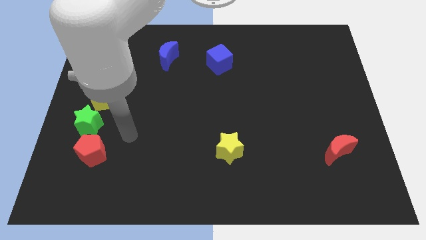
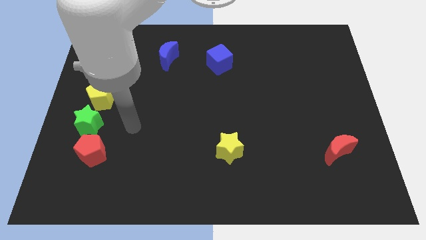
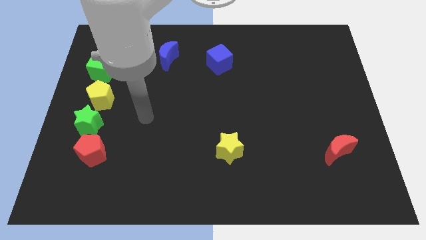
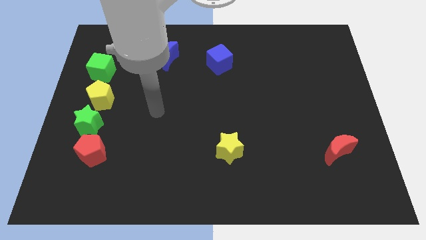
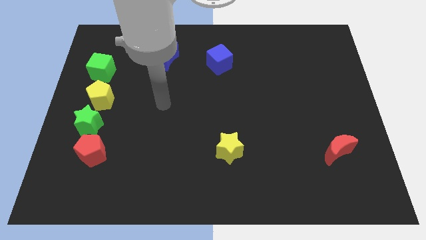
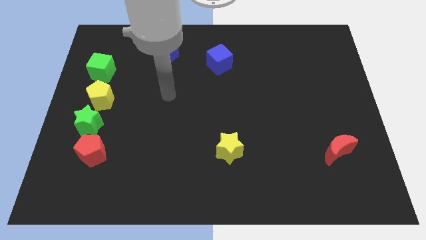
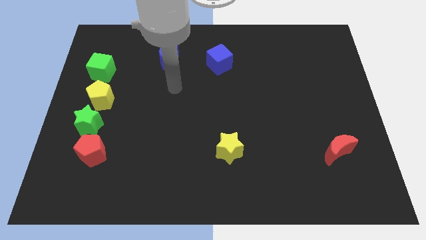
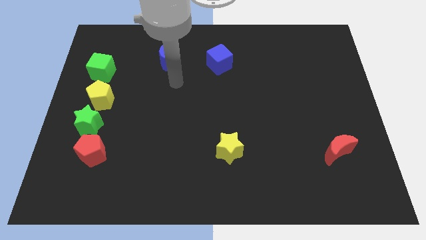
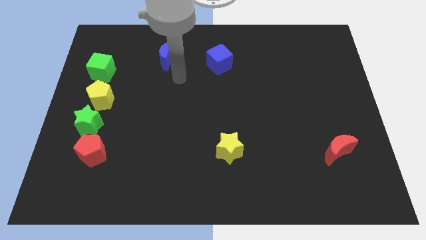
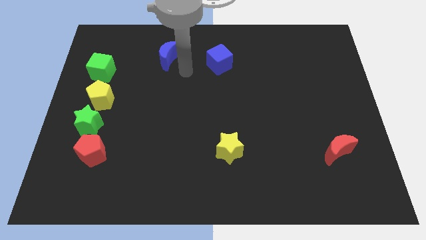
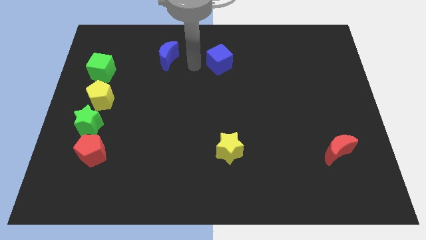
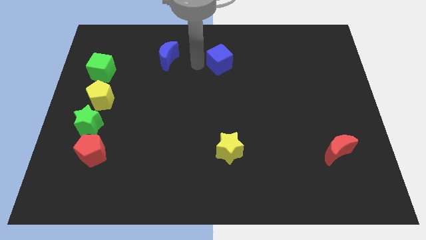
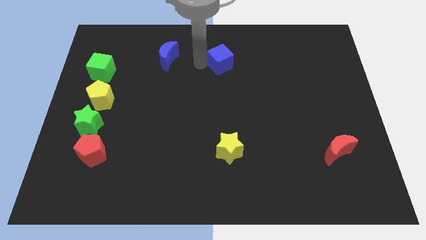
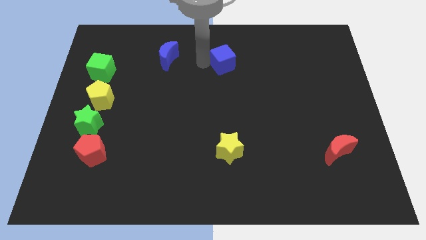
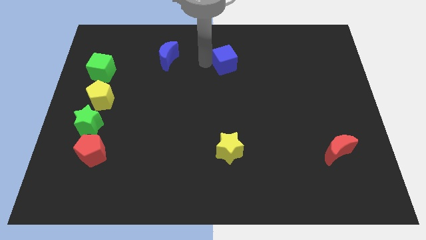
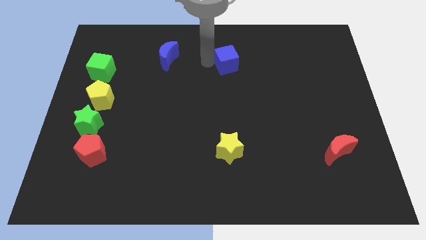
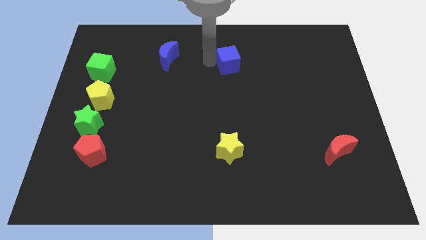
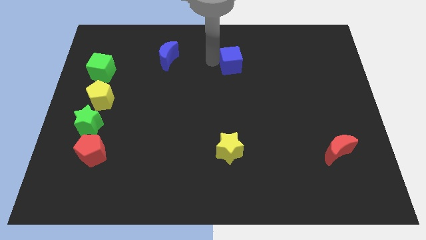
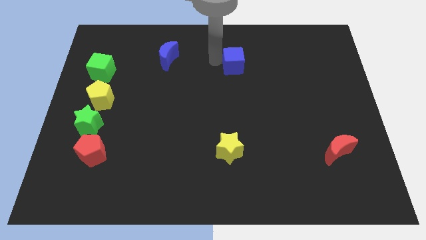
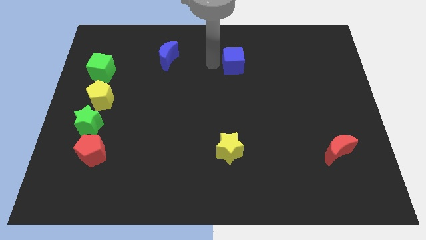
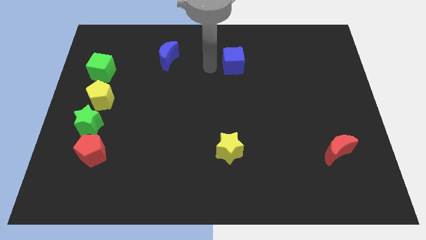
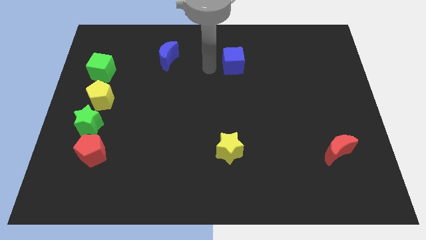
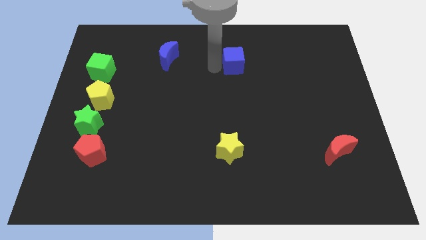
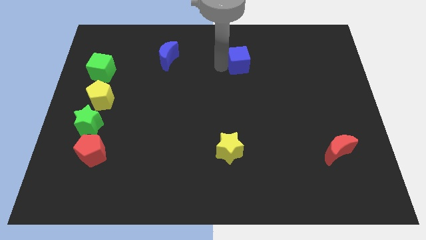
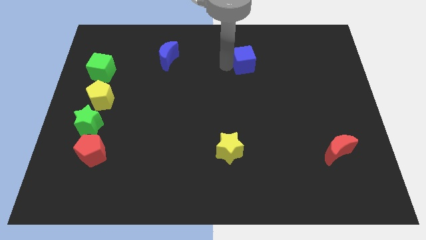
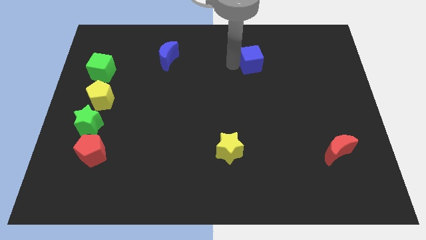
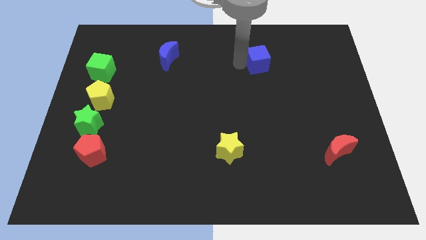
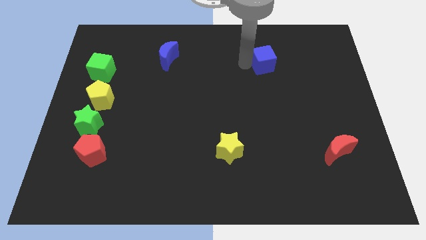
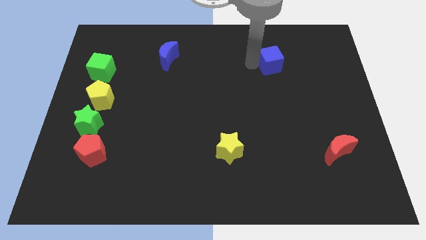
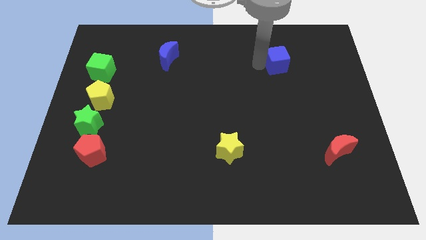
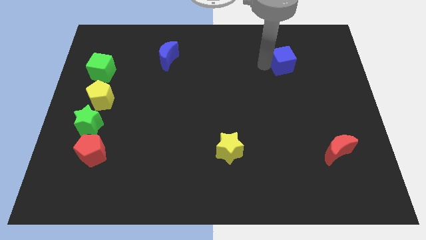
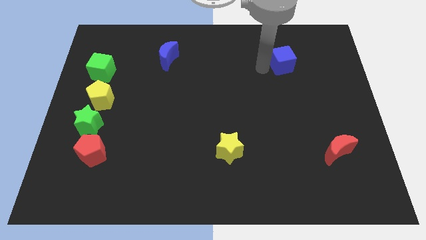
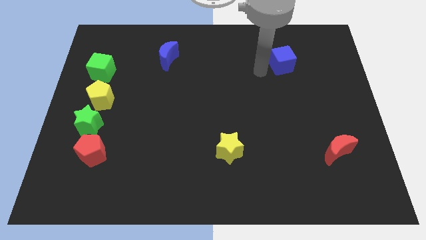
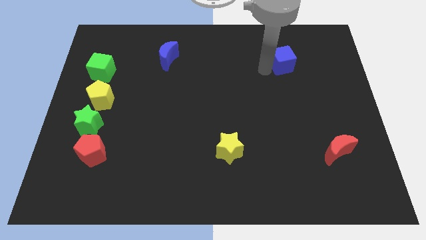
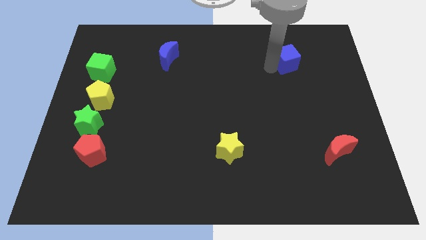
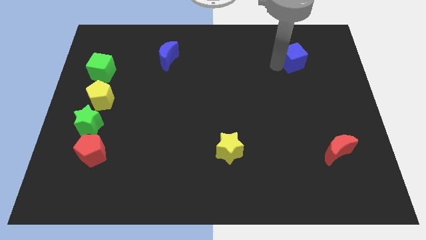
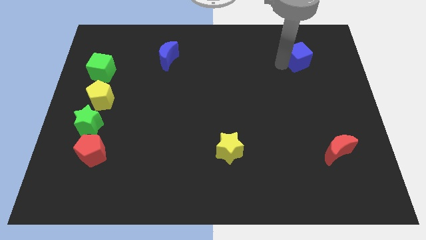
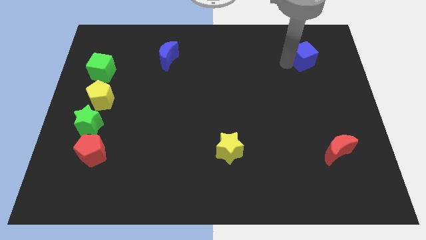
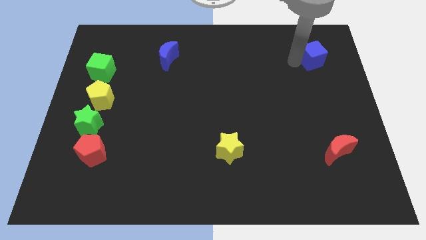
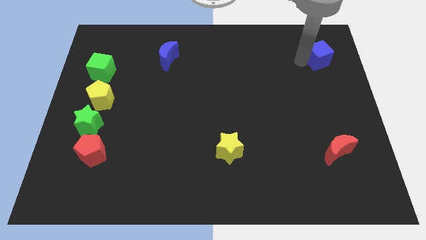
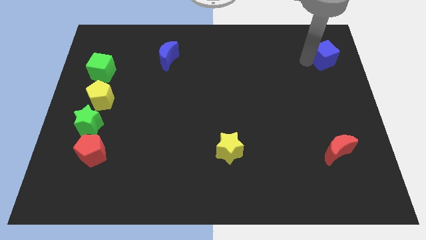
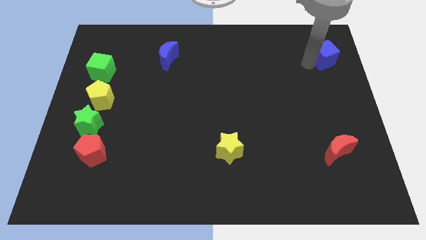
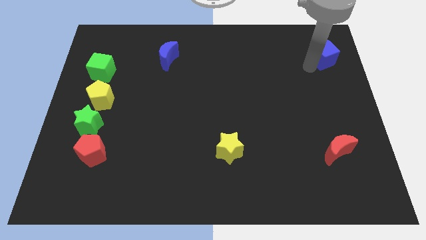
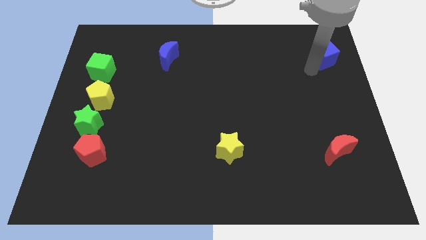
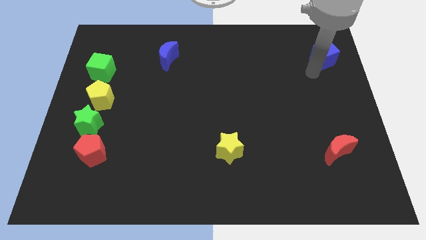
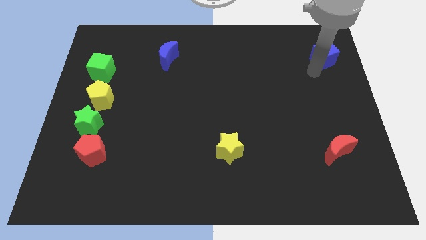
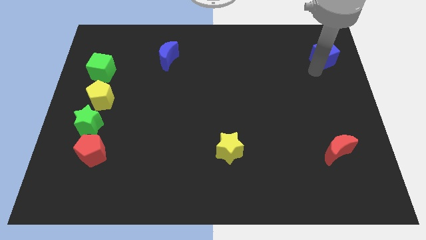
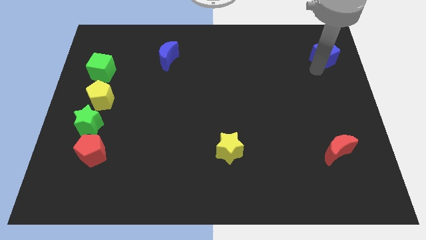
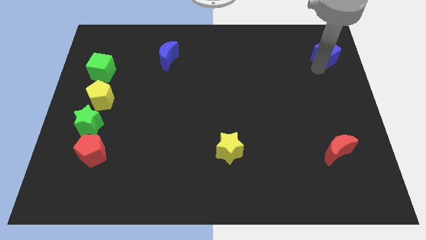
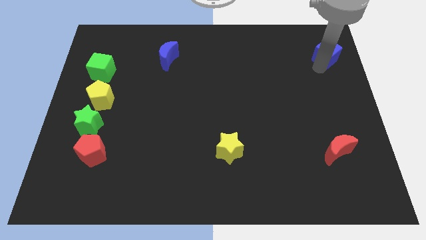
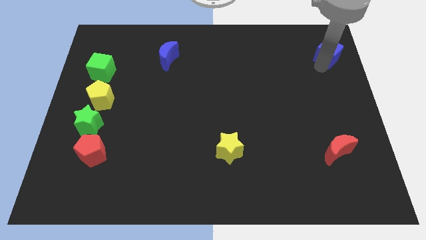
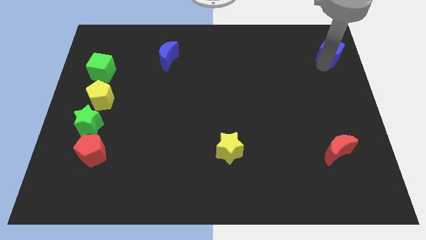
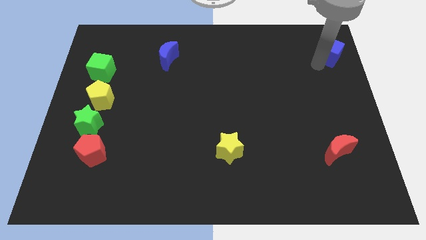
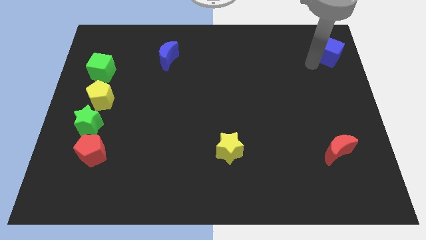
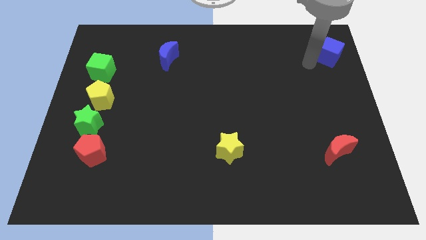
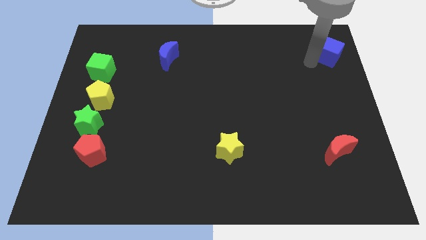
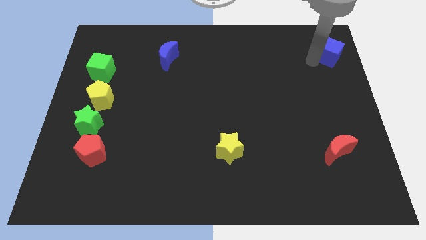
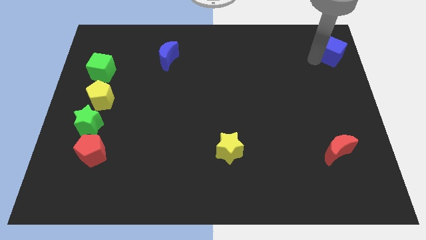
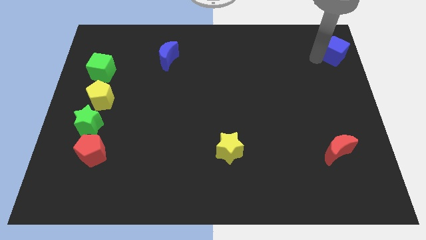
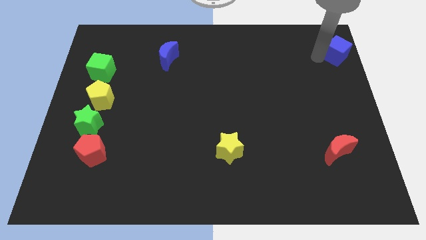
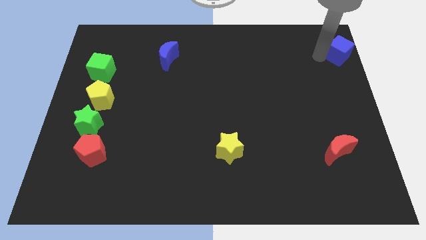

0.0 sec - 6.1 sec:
push the blue cube to the top right corner

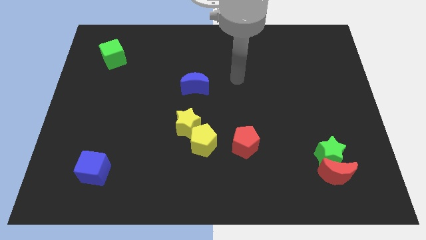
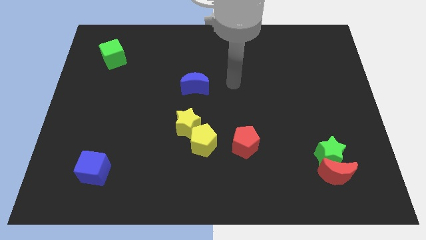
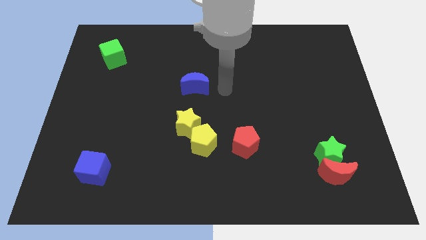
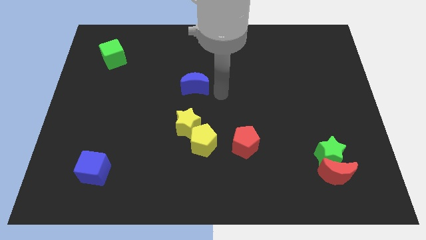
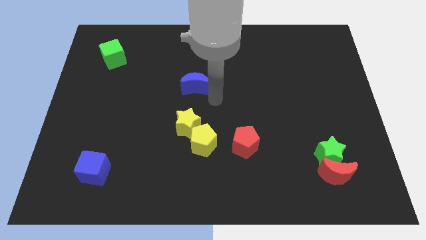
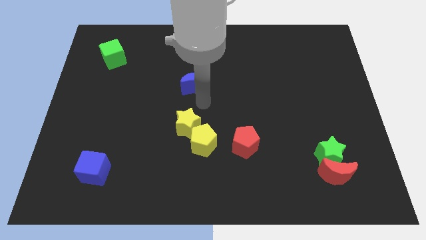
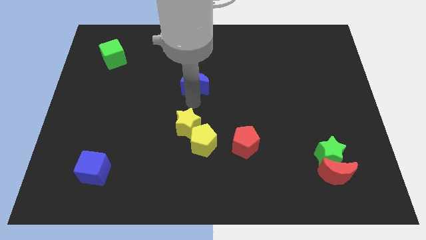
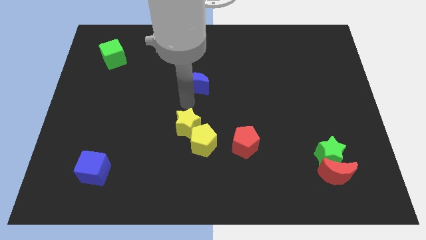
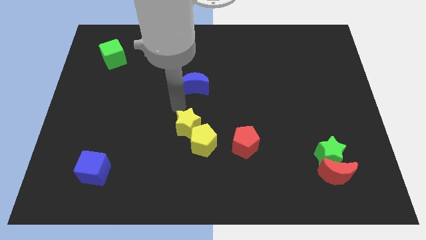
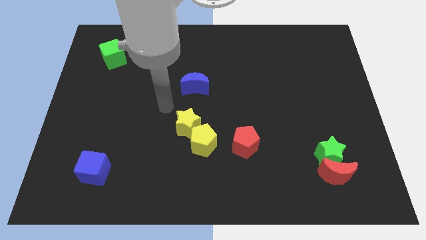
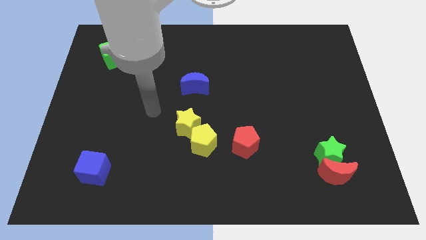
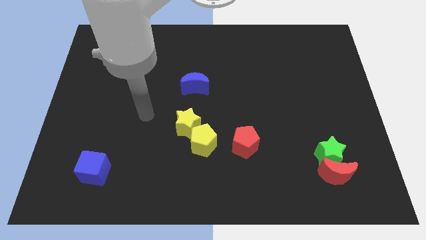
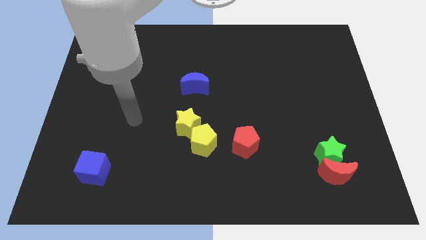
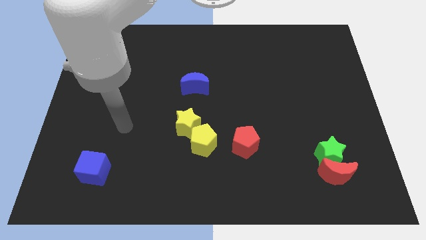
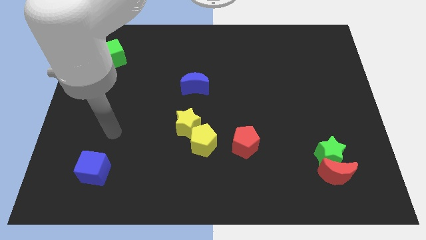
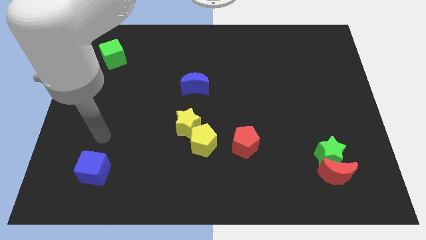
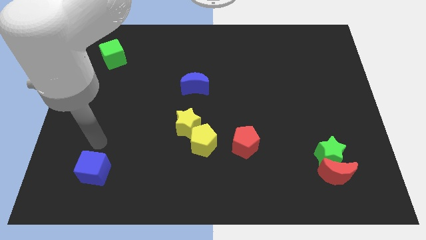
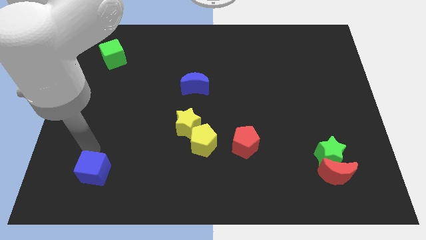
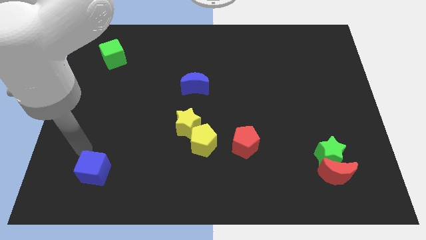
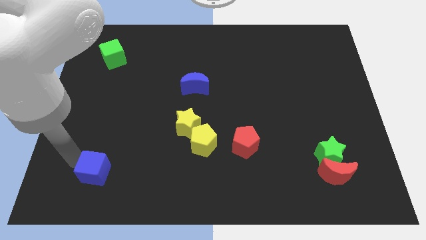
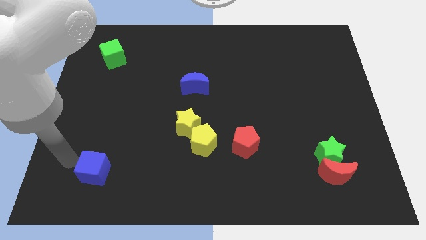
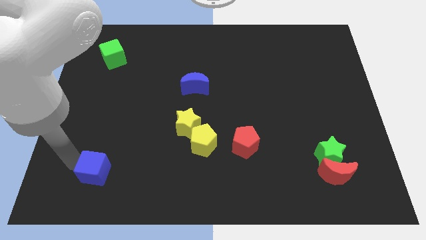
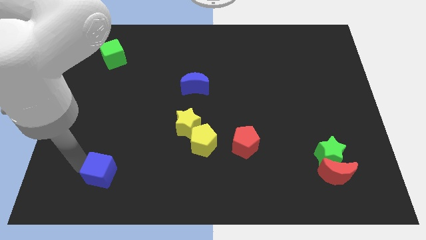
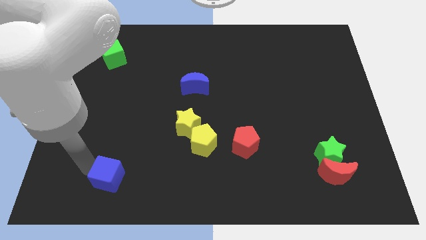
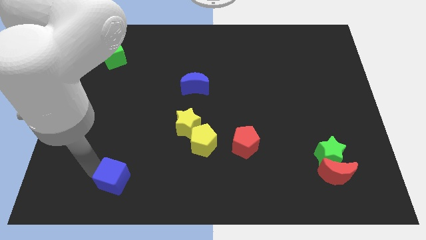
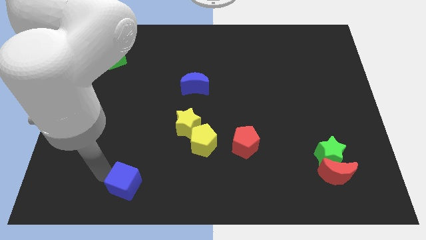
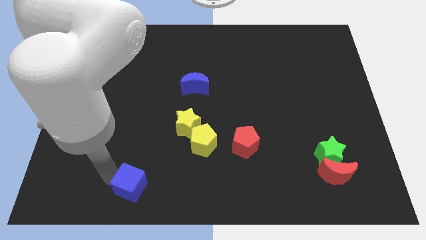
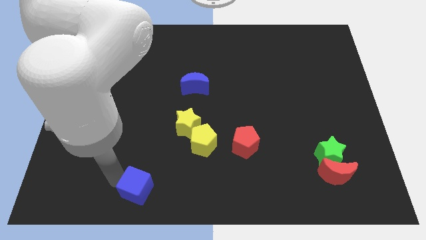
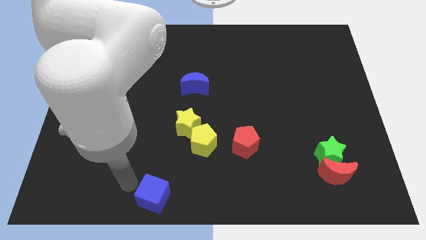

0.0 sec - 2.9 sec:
push the blue cube to the bottom side
